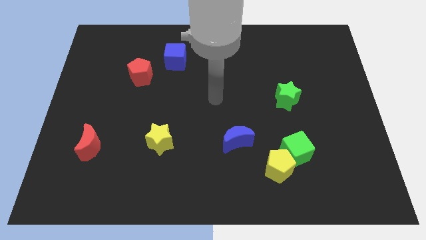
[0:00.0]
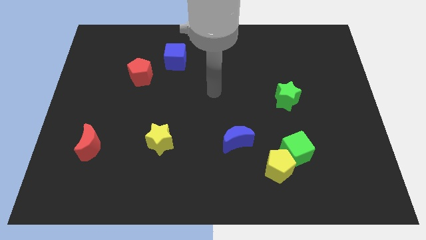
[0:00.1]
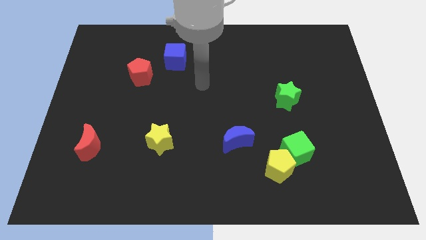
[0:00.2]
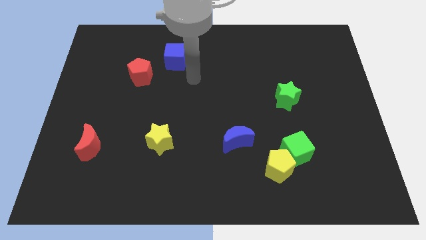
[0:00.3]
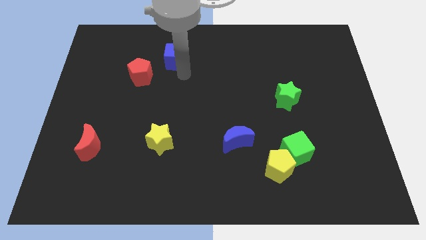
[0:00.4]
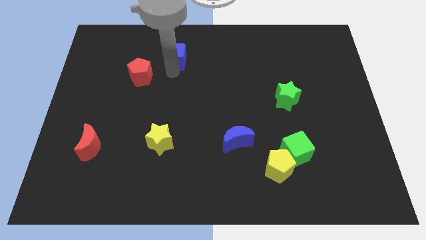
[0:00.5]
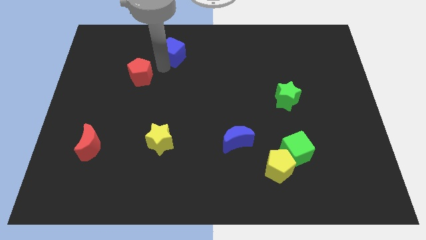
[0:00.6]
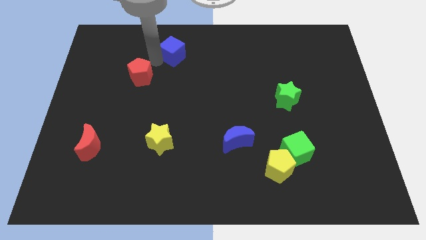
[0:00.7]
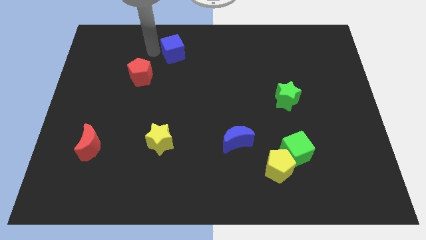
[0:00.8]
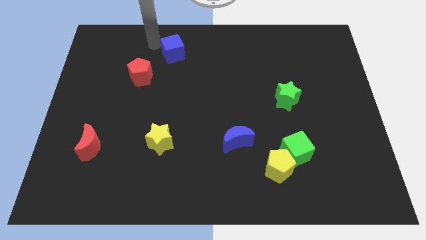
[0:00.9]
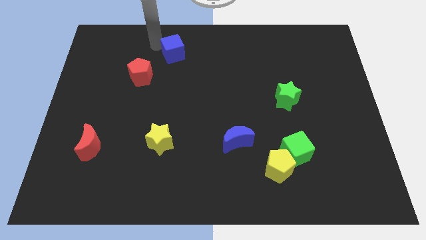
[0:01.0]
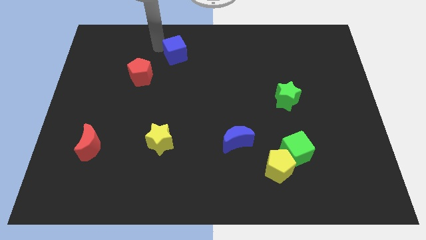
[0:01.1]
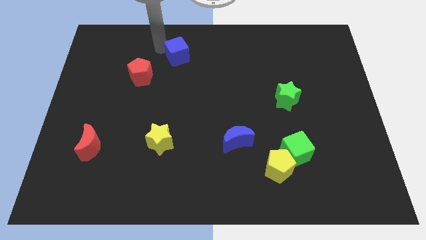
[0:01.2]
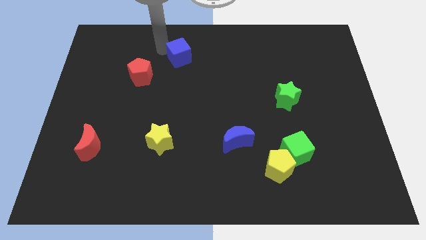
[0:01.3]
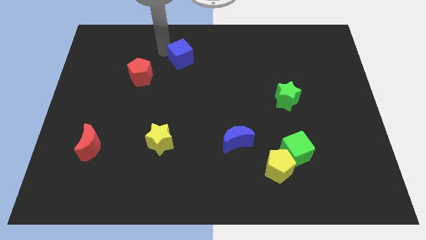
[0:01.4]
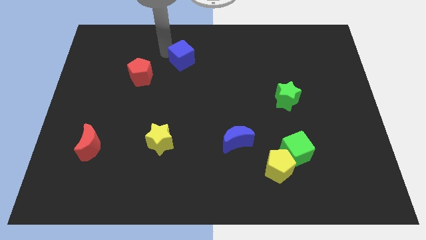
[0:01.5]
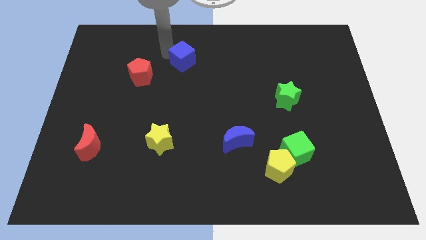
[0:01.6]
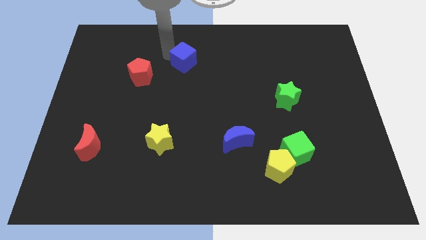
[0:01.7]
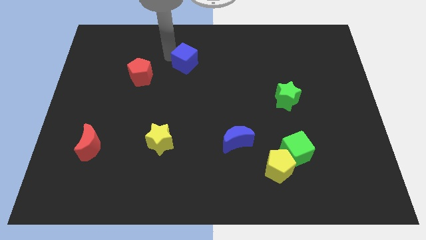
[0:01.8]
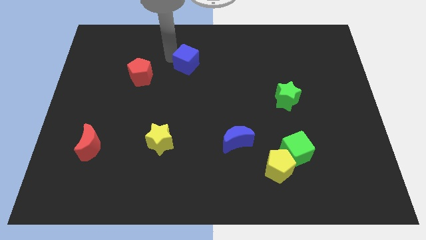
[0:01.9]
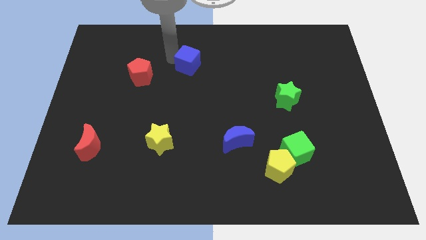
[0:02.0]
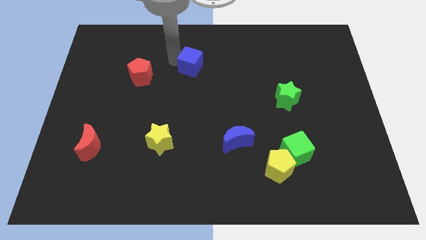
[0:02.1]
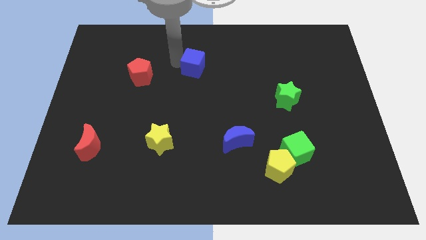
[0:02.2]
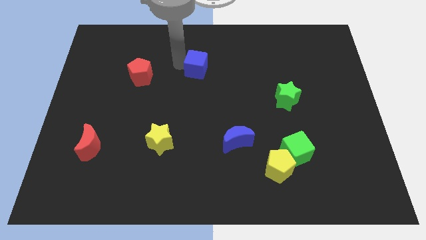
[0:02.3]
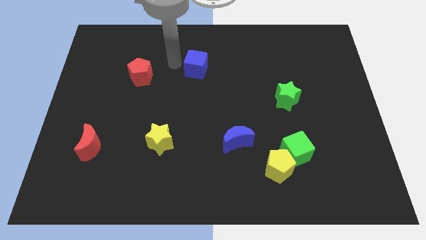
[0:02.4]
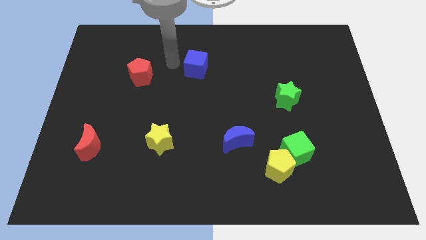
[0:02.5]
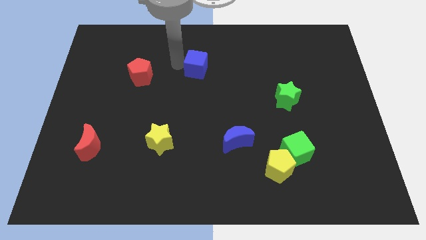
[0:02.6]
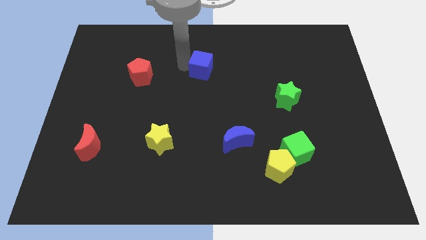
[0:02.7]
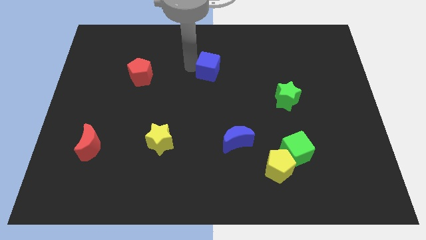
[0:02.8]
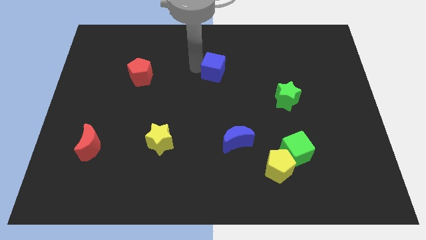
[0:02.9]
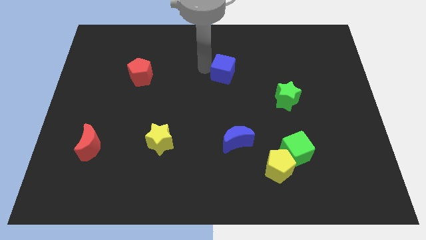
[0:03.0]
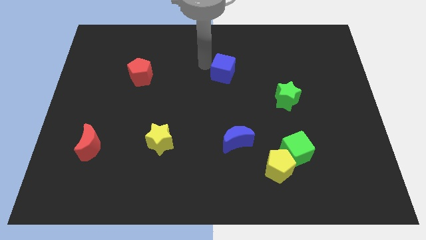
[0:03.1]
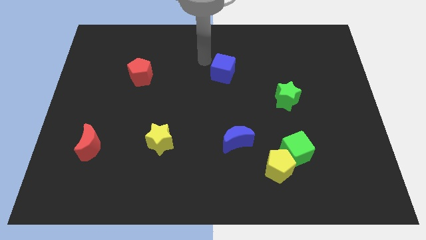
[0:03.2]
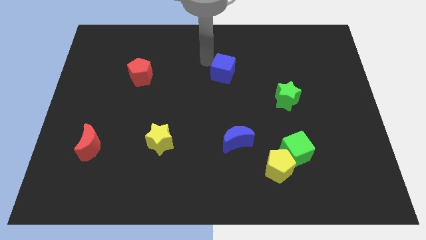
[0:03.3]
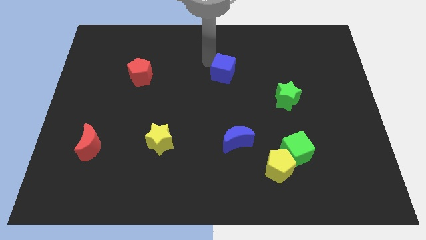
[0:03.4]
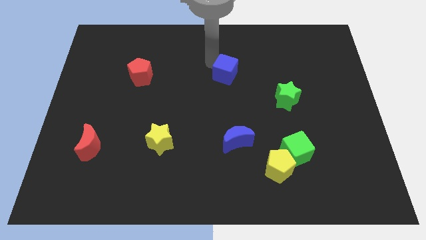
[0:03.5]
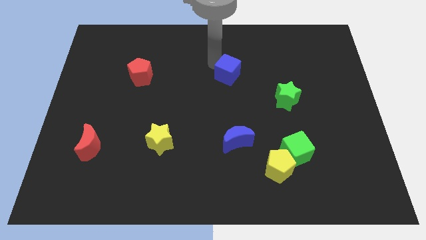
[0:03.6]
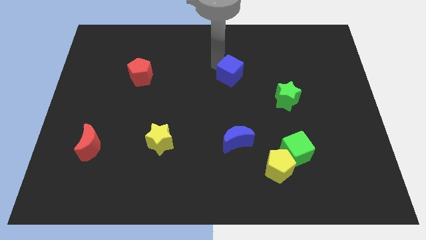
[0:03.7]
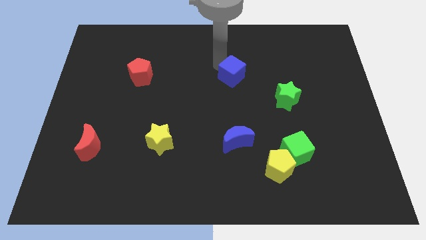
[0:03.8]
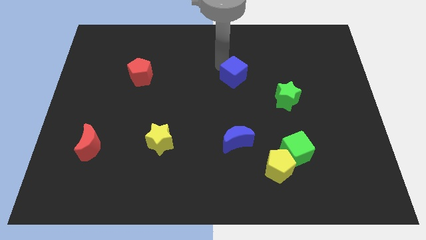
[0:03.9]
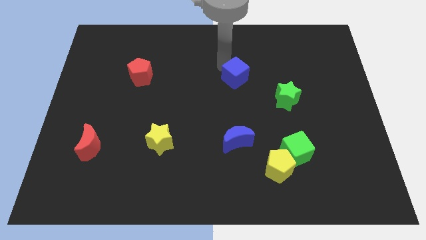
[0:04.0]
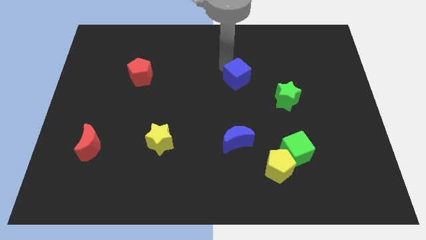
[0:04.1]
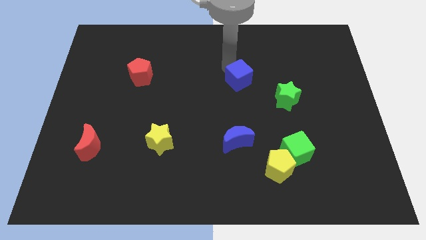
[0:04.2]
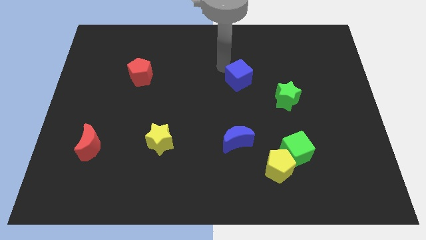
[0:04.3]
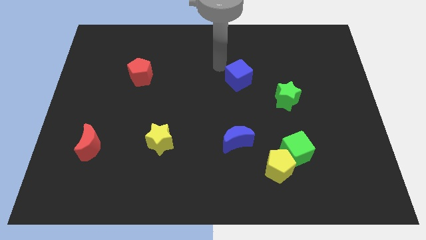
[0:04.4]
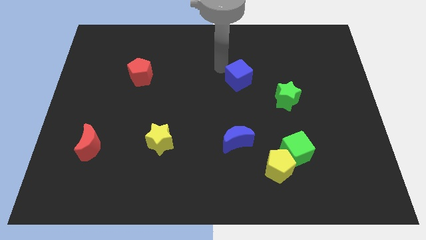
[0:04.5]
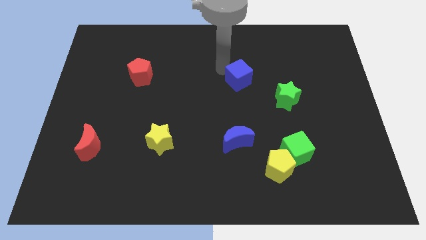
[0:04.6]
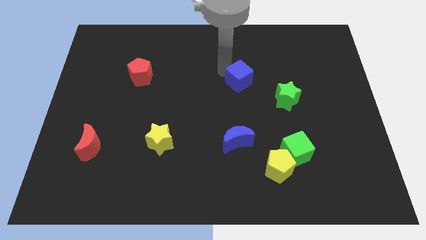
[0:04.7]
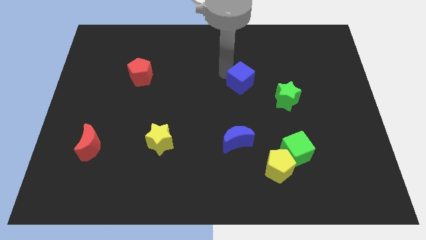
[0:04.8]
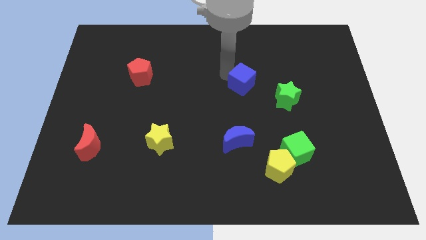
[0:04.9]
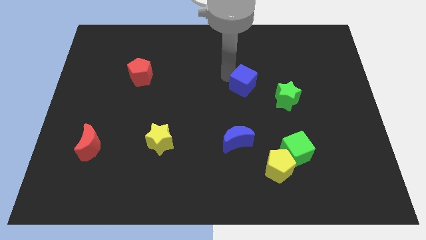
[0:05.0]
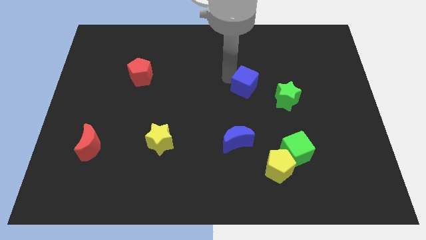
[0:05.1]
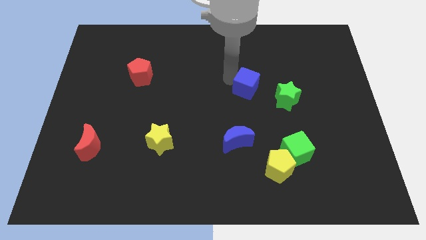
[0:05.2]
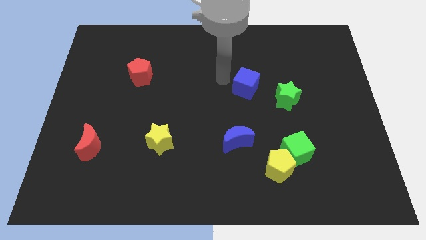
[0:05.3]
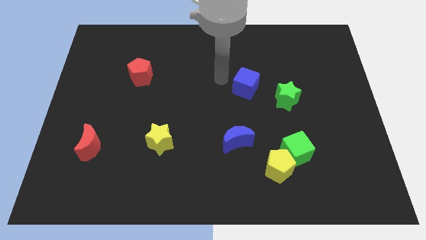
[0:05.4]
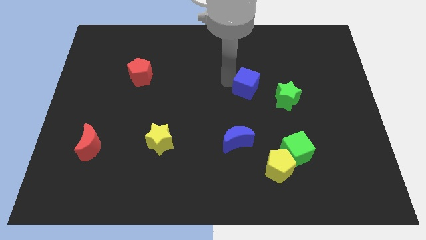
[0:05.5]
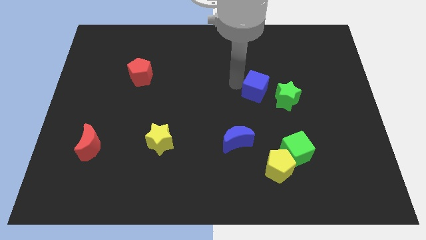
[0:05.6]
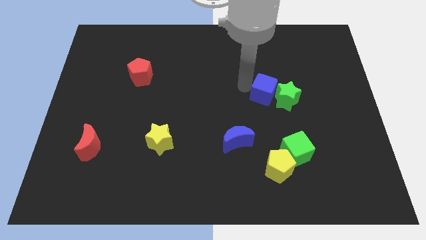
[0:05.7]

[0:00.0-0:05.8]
put the blue cube towards the green star

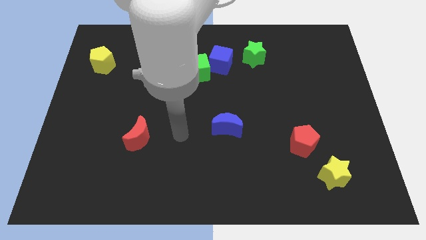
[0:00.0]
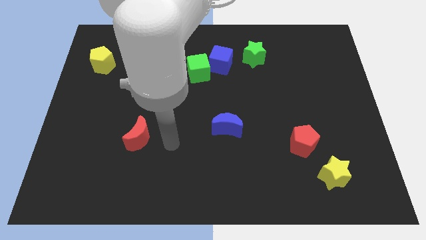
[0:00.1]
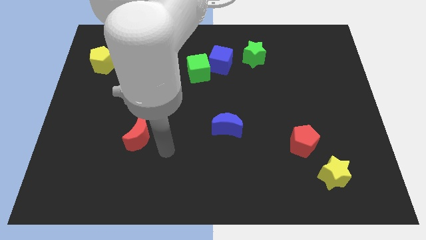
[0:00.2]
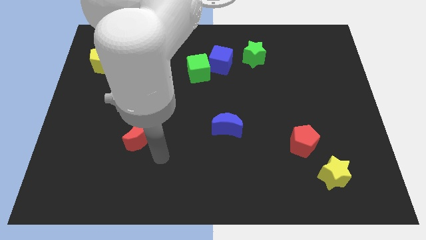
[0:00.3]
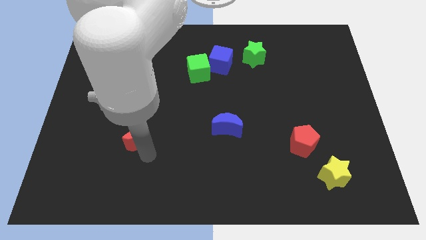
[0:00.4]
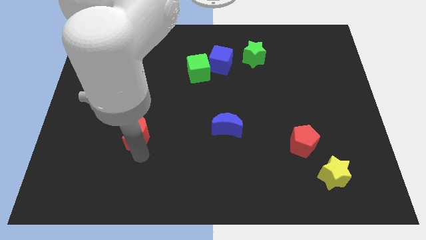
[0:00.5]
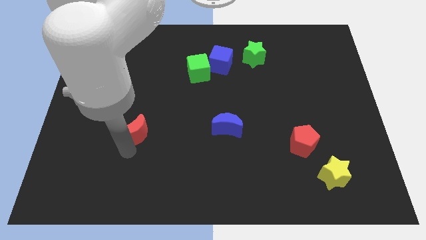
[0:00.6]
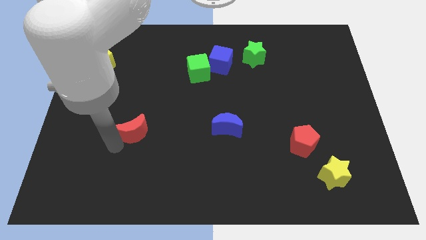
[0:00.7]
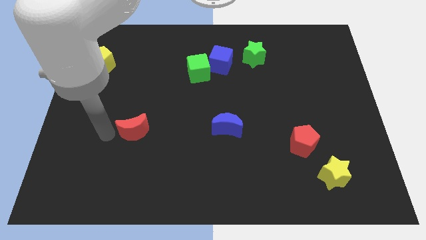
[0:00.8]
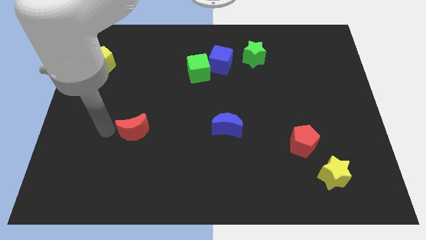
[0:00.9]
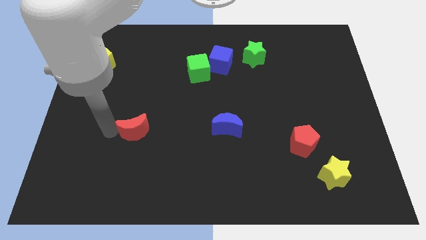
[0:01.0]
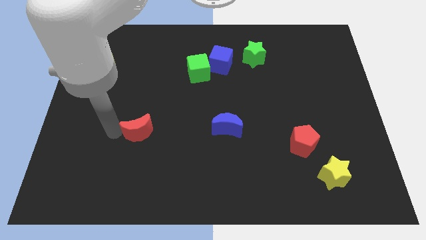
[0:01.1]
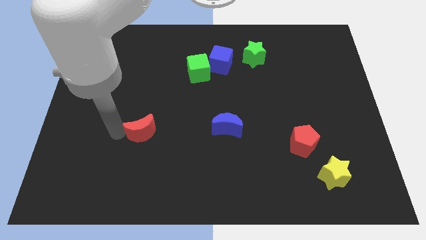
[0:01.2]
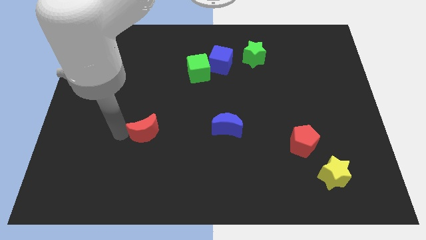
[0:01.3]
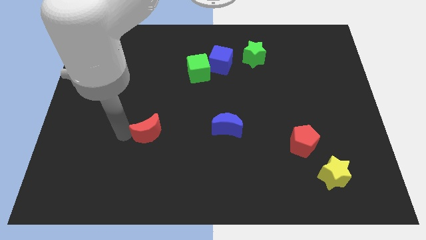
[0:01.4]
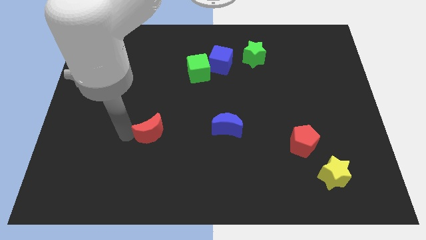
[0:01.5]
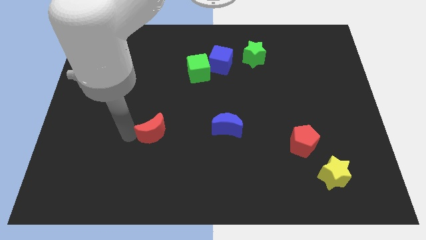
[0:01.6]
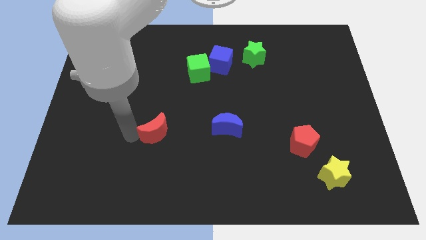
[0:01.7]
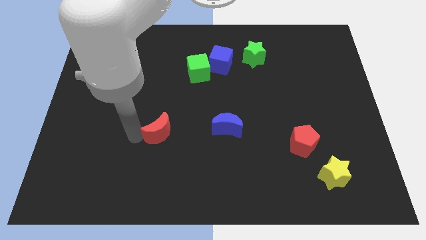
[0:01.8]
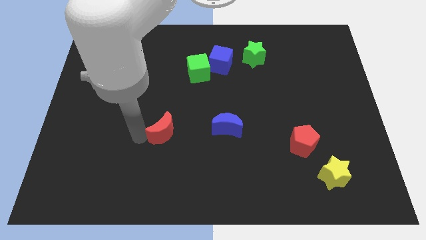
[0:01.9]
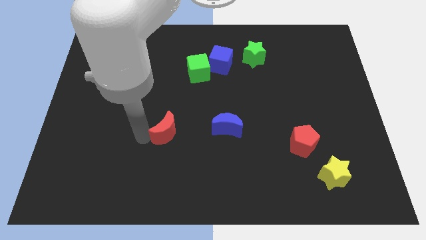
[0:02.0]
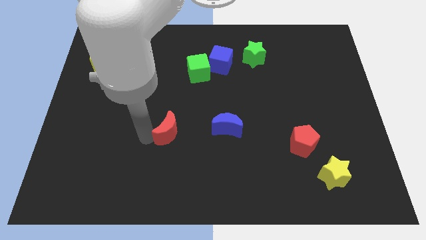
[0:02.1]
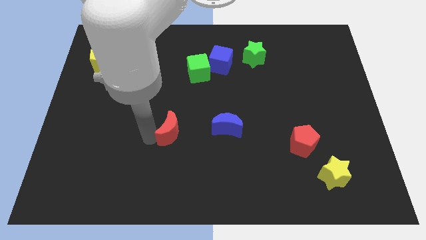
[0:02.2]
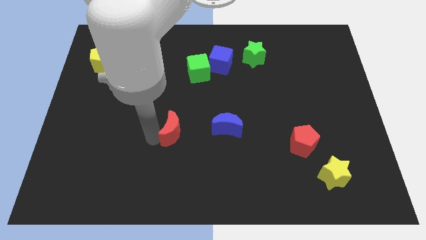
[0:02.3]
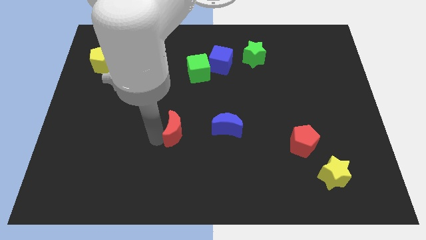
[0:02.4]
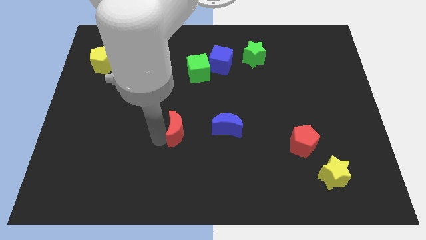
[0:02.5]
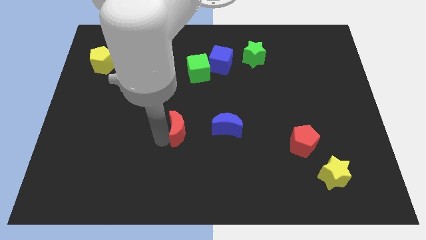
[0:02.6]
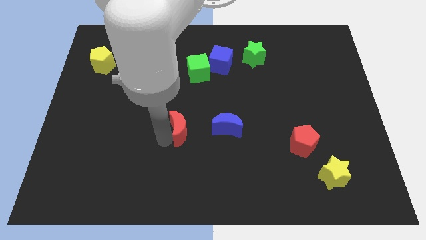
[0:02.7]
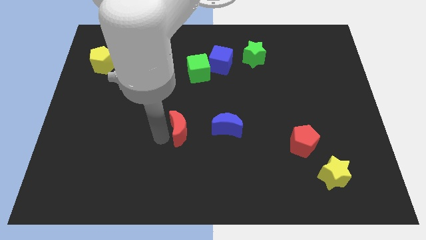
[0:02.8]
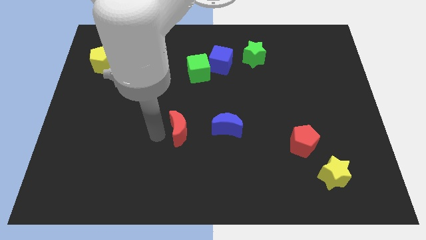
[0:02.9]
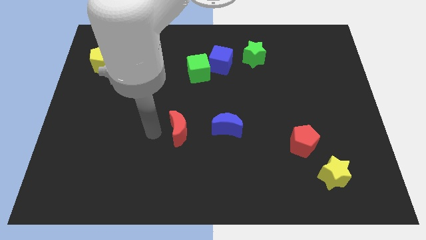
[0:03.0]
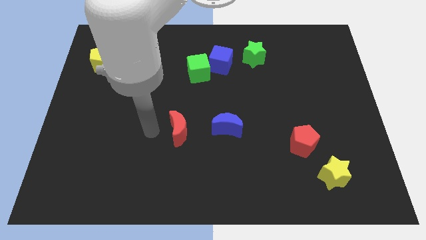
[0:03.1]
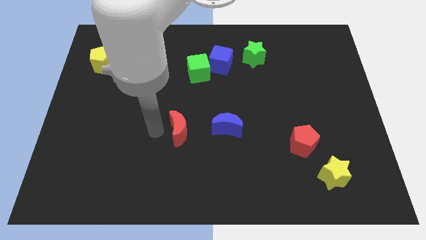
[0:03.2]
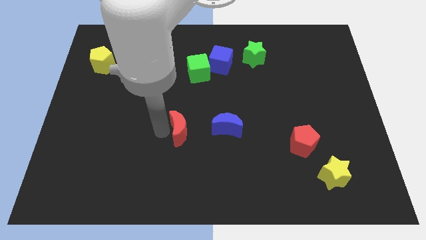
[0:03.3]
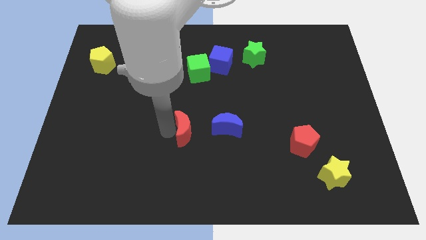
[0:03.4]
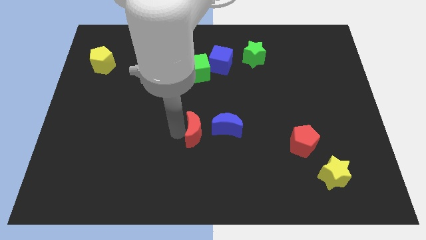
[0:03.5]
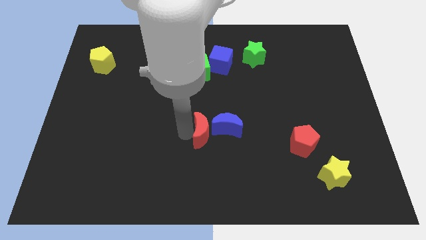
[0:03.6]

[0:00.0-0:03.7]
slide the red moon to the blue moon
